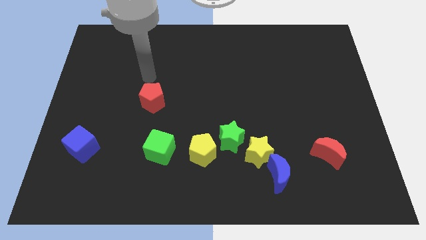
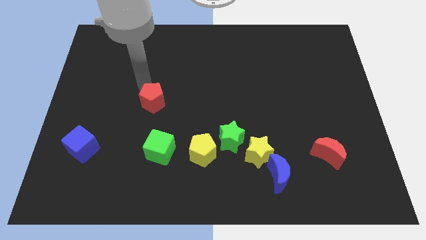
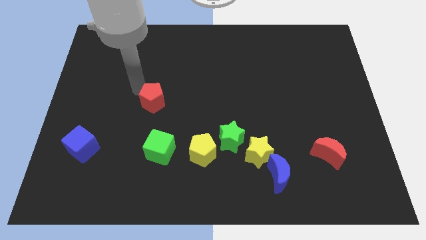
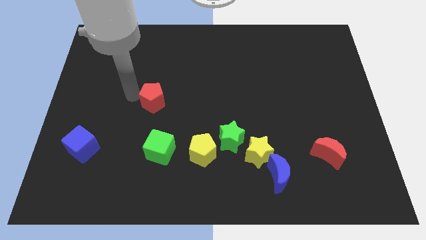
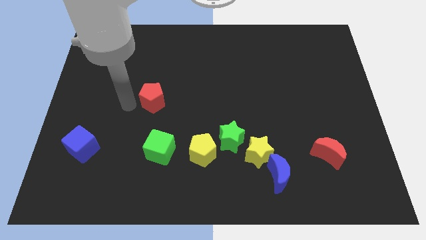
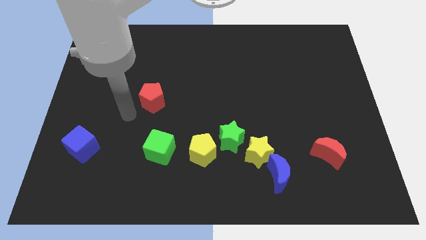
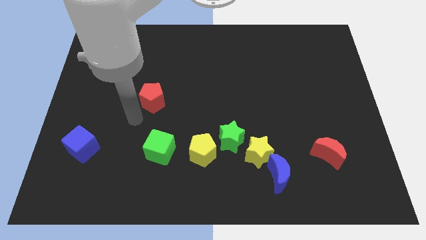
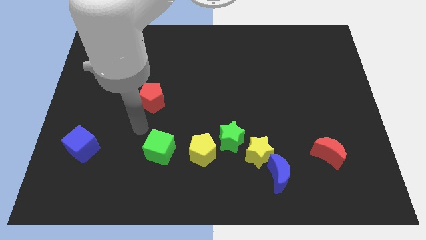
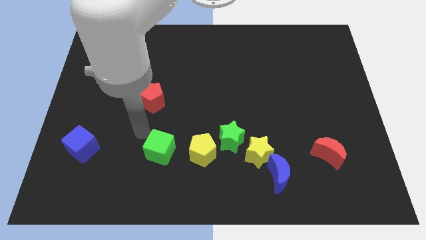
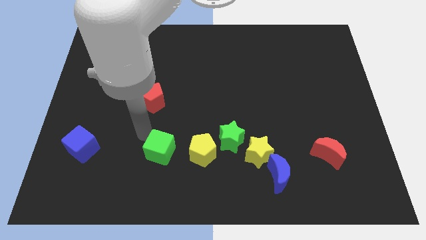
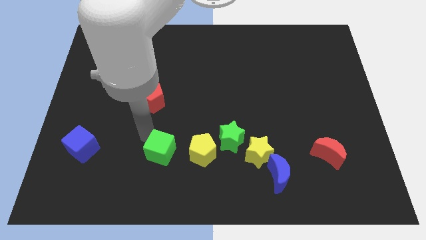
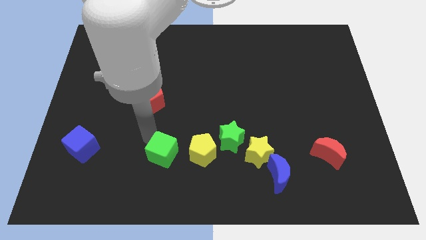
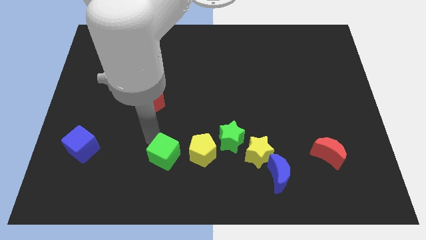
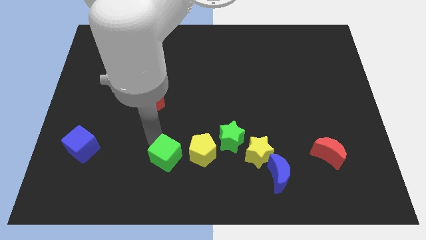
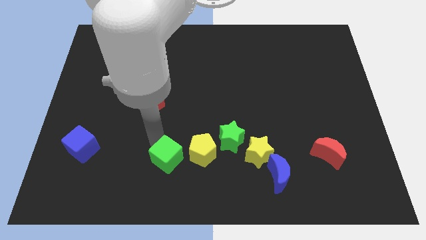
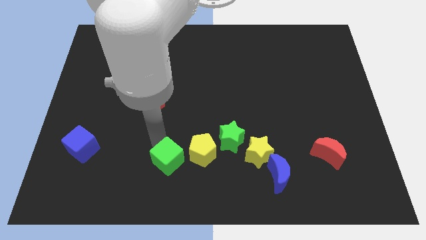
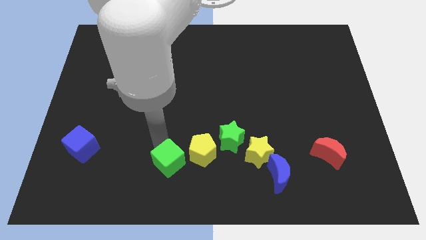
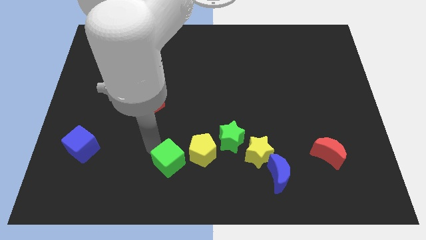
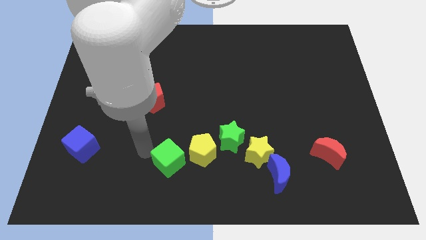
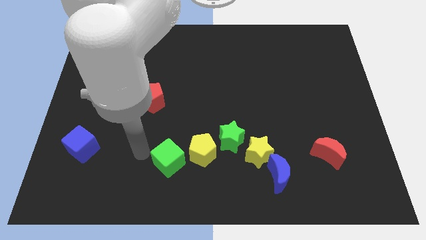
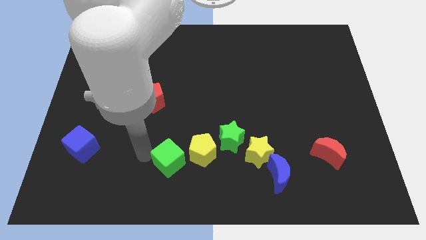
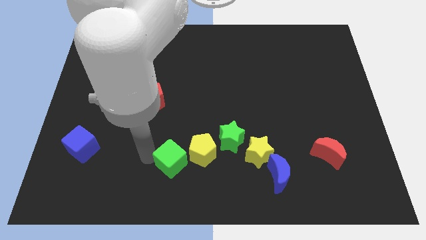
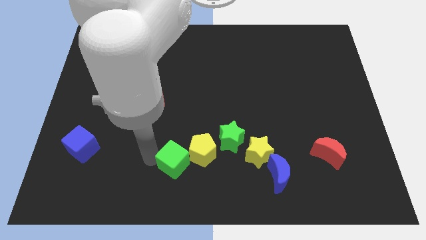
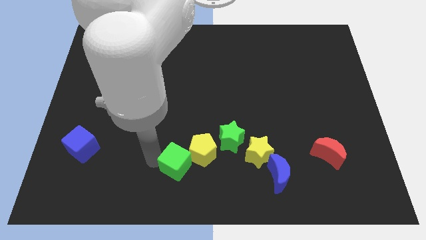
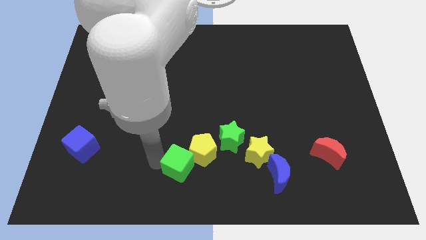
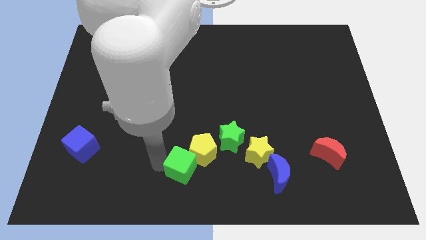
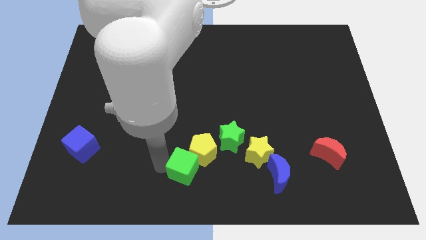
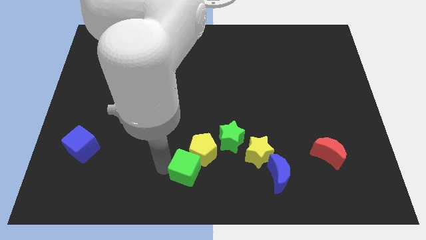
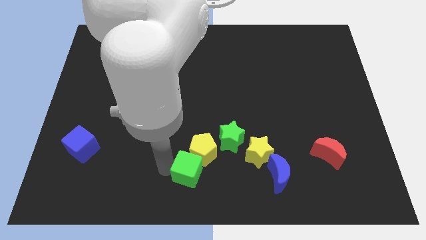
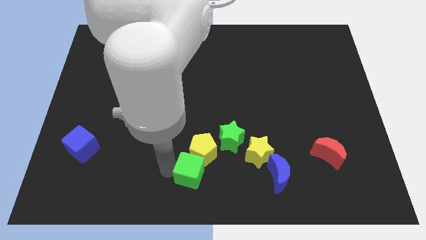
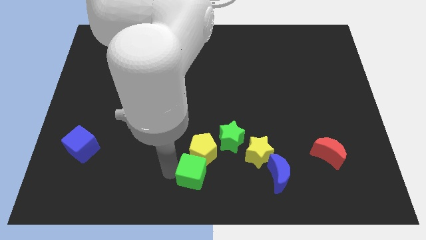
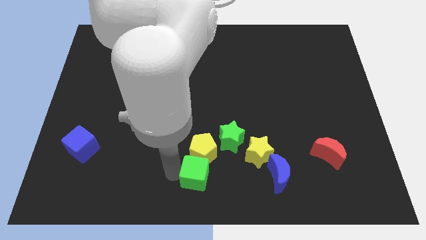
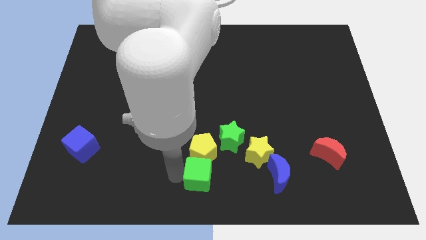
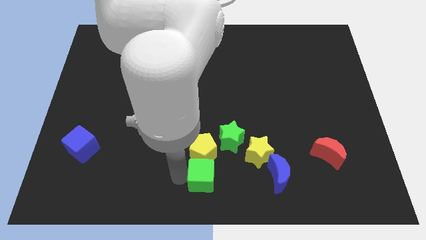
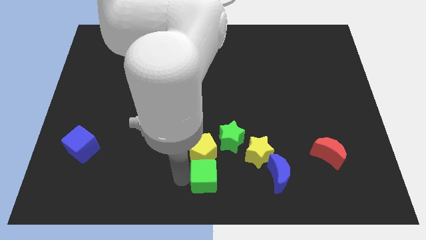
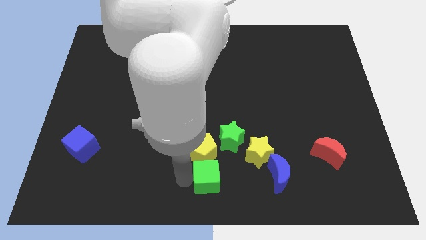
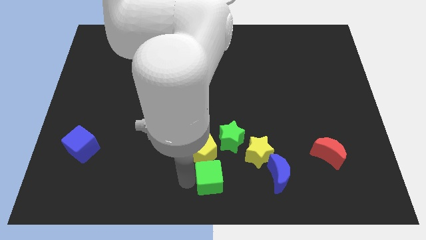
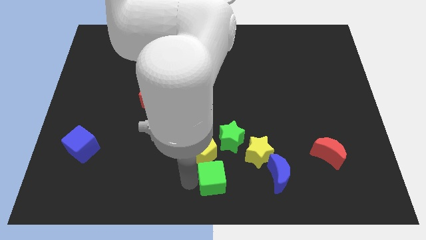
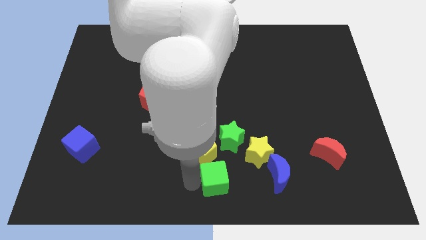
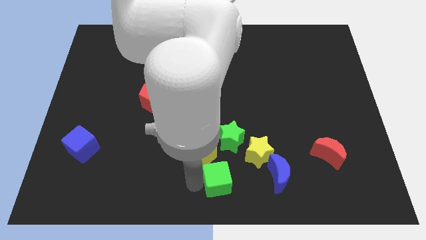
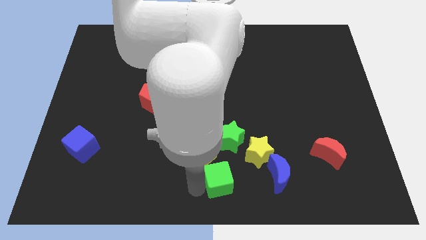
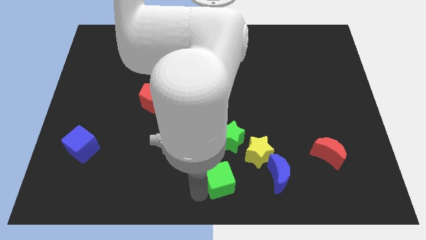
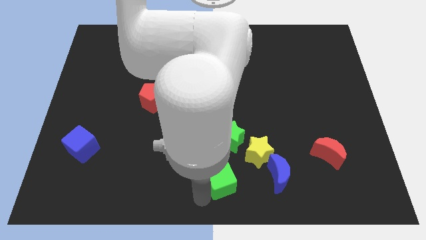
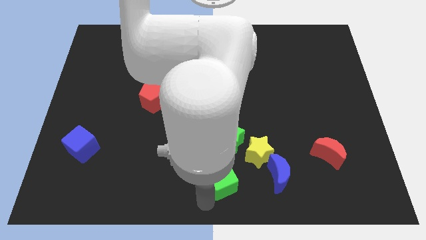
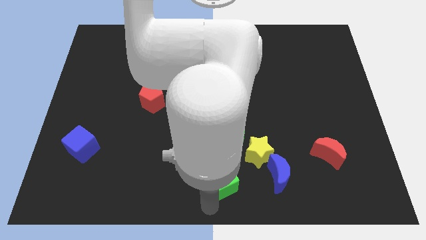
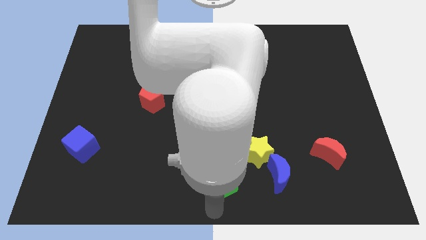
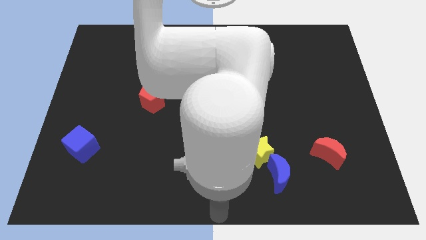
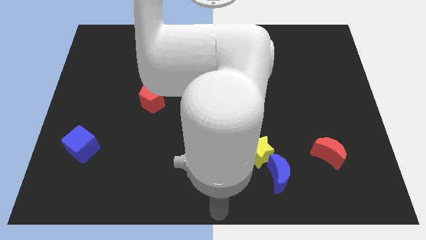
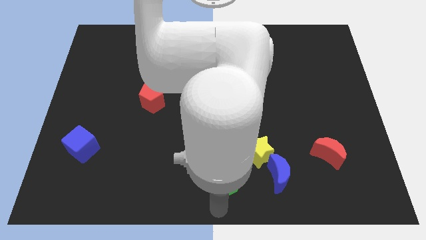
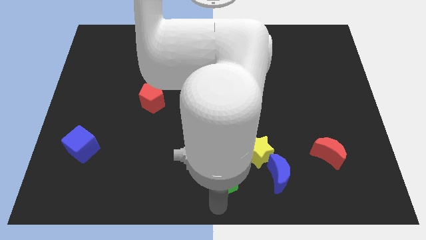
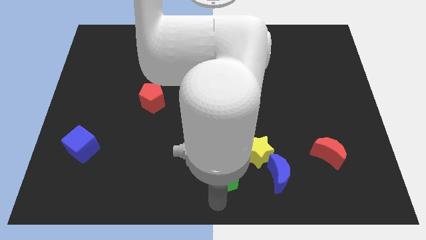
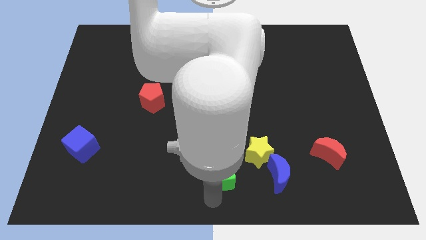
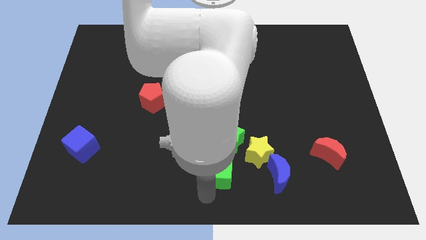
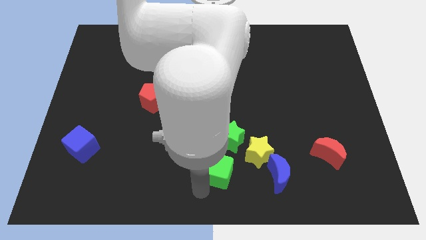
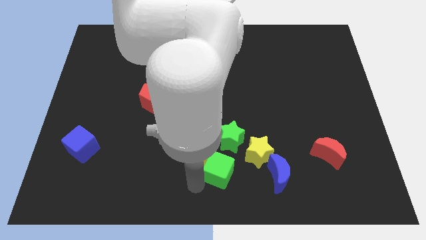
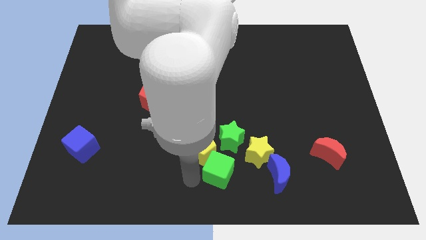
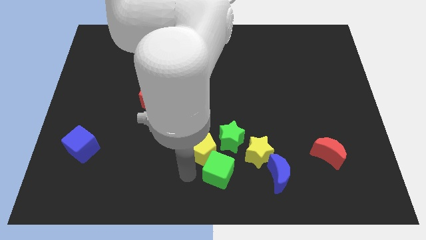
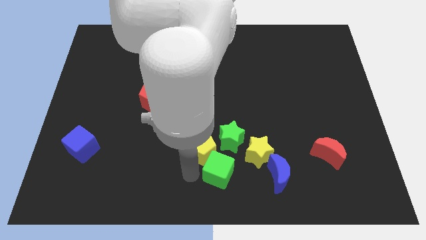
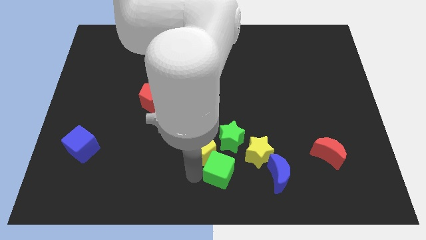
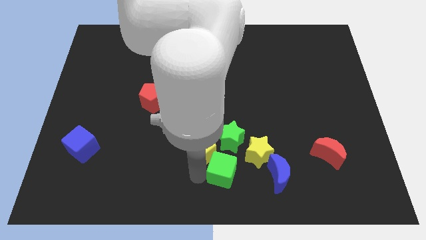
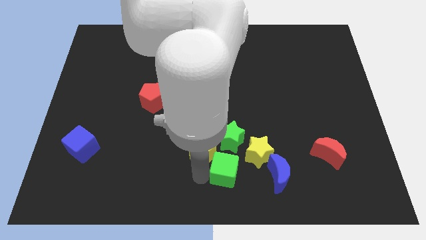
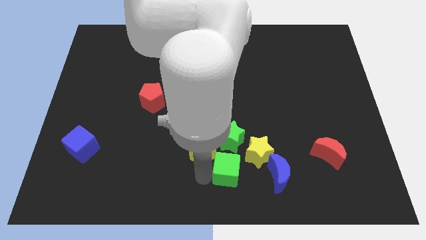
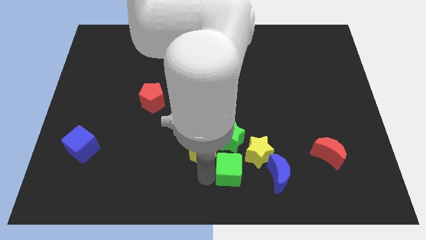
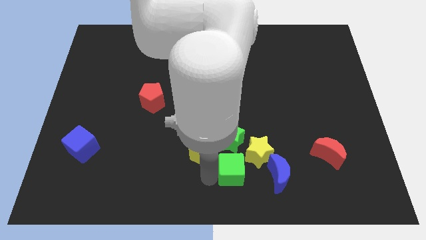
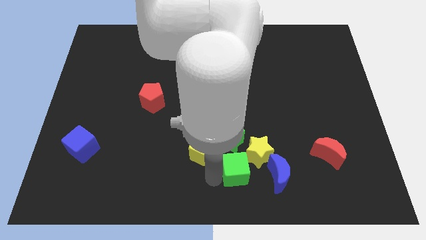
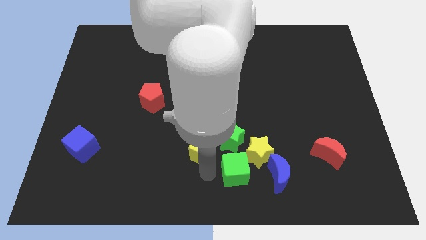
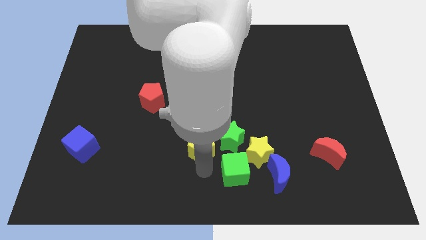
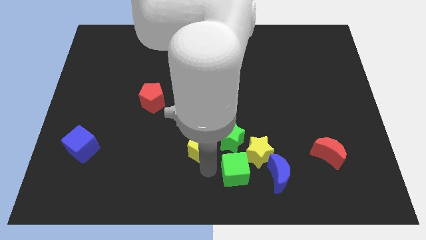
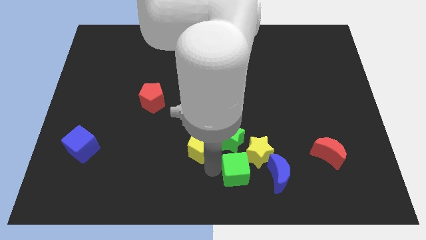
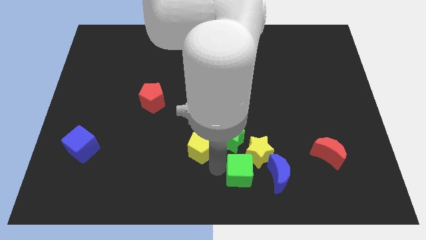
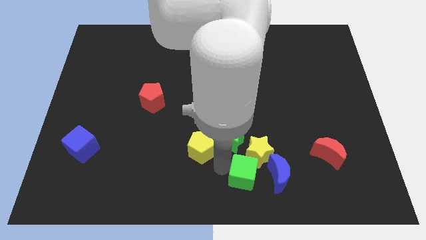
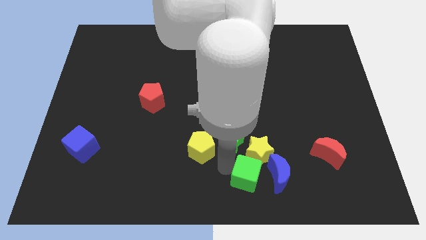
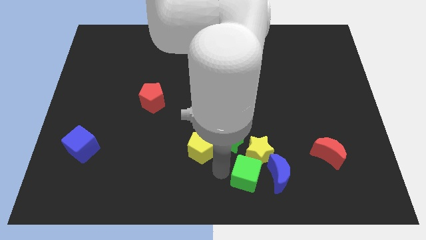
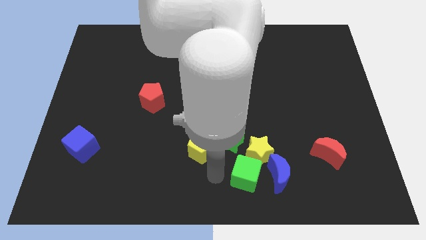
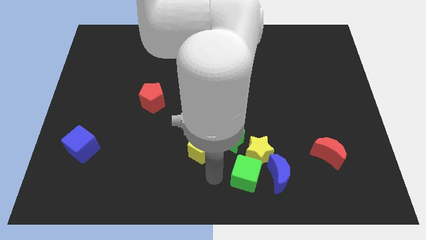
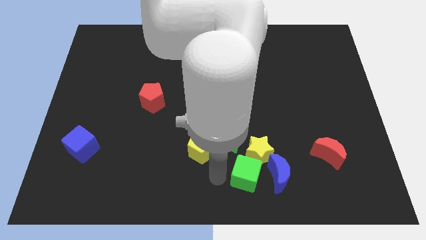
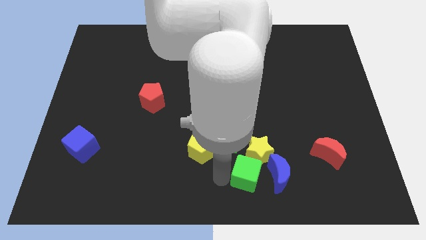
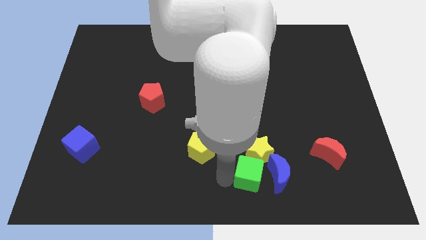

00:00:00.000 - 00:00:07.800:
push the green cube to the blue moon
